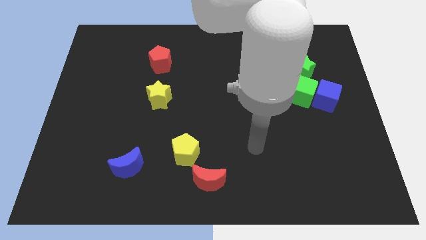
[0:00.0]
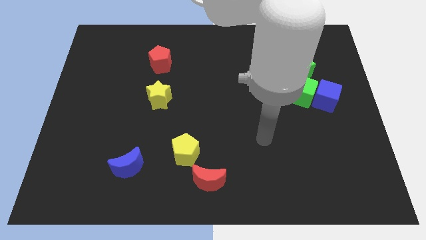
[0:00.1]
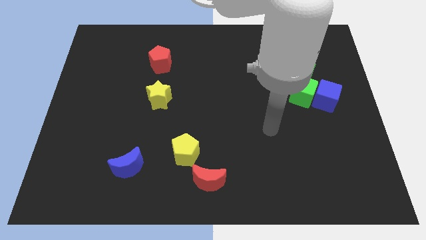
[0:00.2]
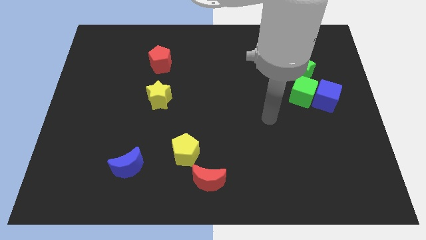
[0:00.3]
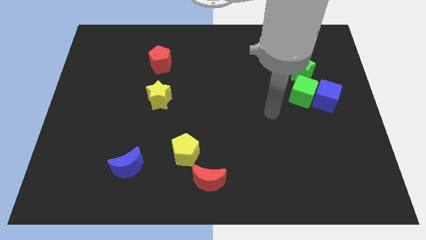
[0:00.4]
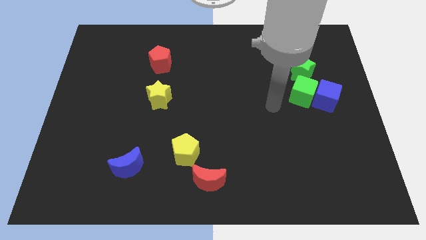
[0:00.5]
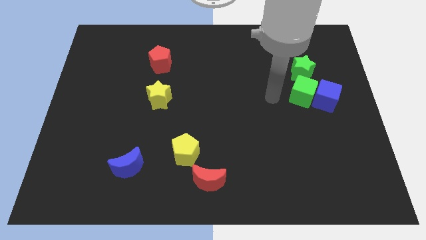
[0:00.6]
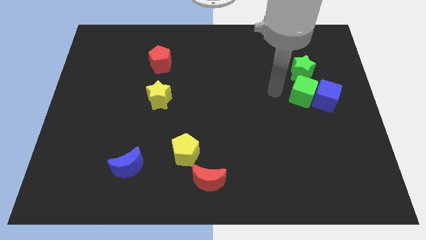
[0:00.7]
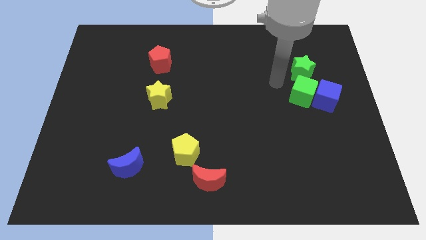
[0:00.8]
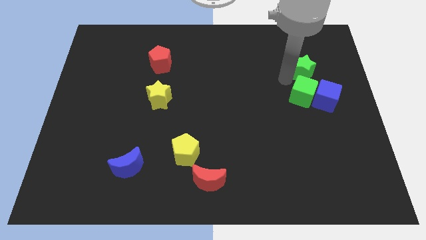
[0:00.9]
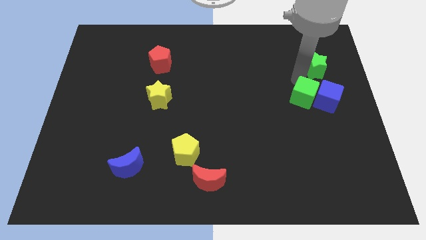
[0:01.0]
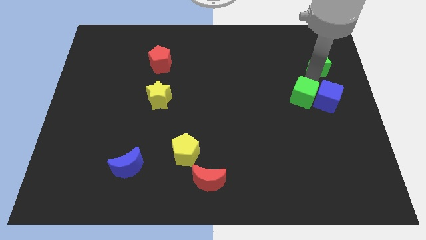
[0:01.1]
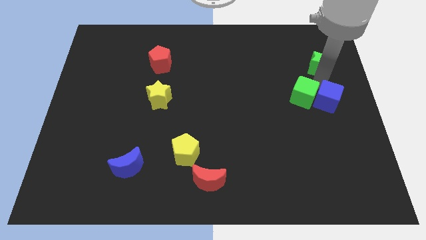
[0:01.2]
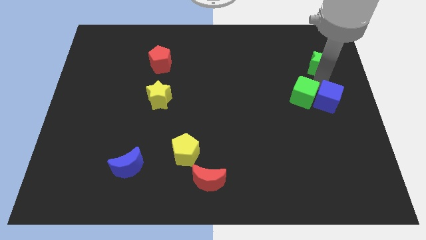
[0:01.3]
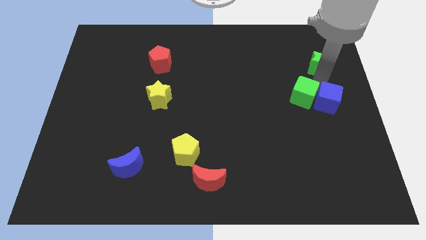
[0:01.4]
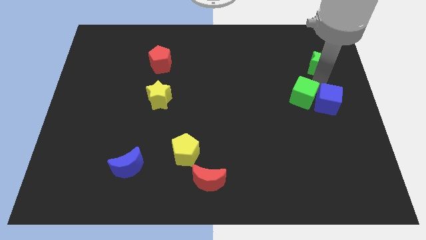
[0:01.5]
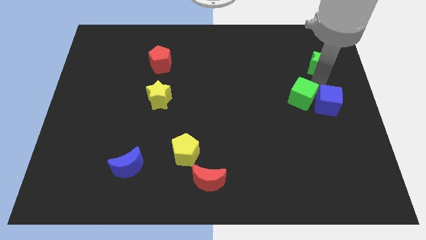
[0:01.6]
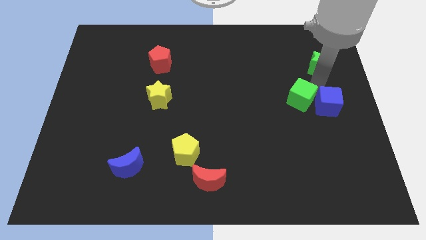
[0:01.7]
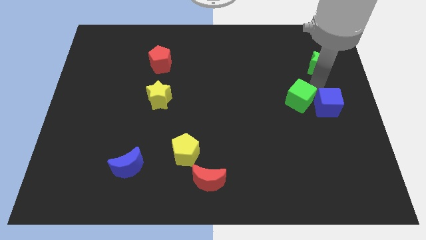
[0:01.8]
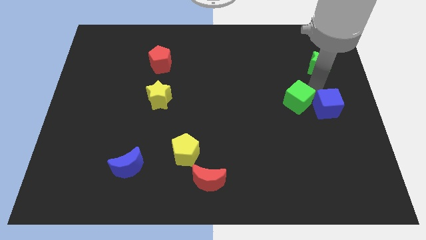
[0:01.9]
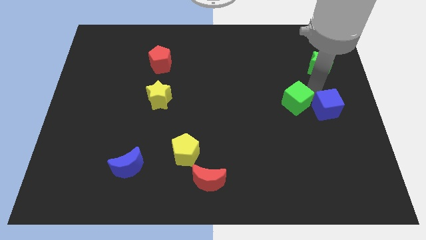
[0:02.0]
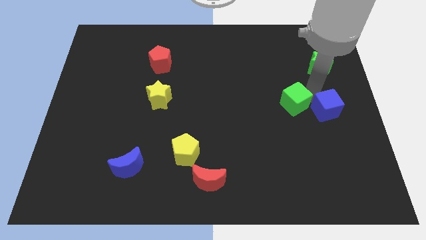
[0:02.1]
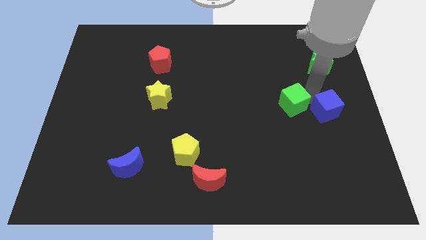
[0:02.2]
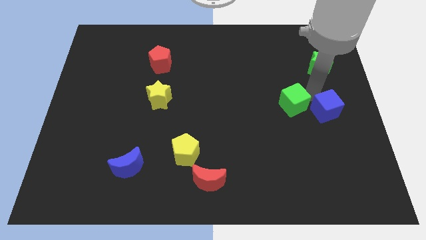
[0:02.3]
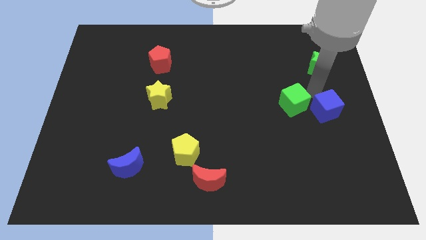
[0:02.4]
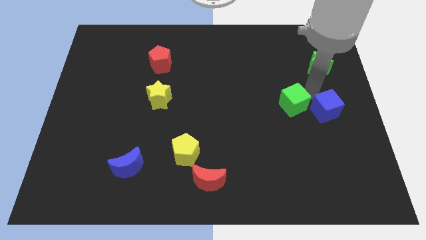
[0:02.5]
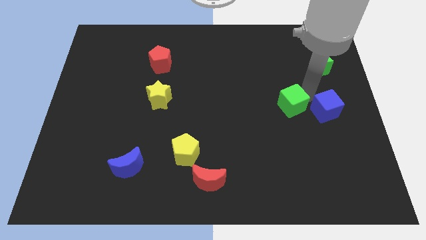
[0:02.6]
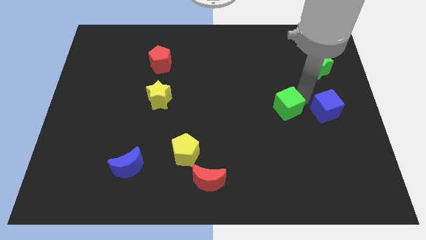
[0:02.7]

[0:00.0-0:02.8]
separate the green cube from the blue cube and green star

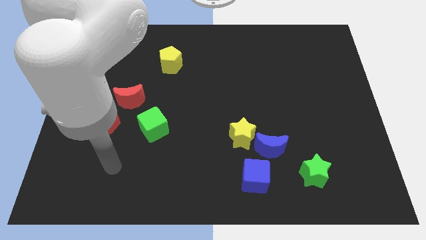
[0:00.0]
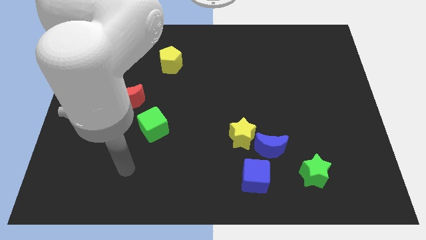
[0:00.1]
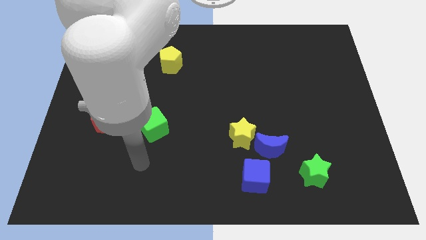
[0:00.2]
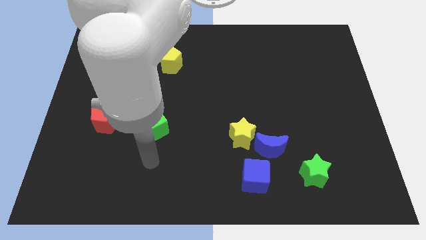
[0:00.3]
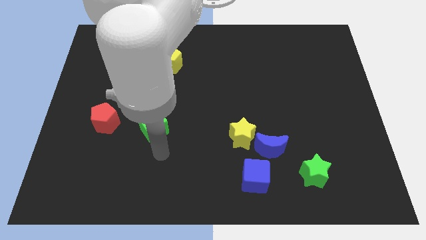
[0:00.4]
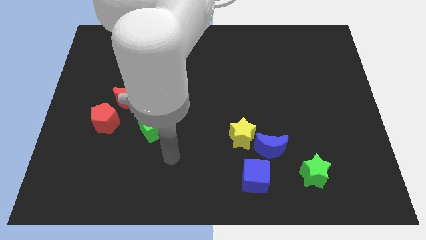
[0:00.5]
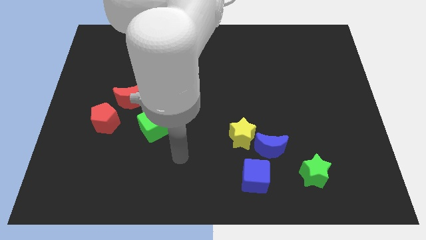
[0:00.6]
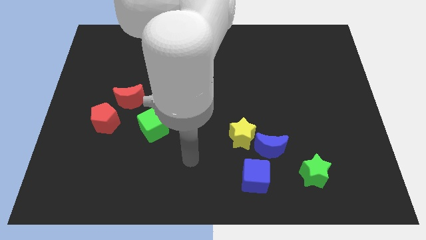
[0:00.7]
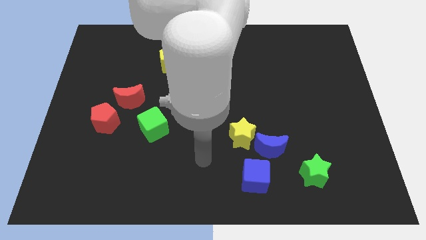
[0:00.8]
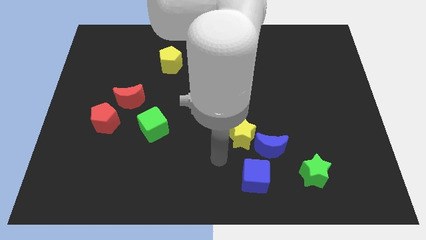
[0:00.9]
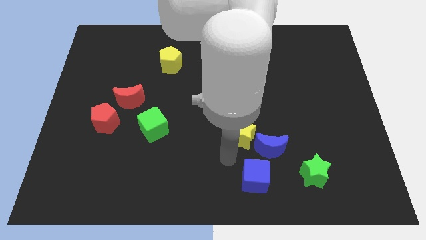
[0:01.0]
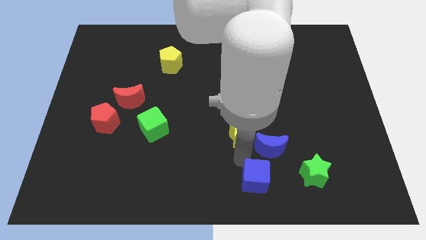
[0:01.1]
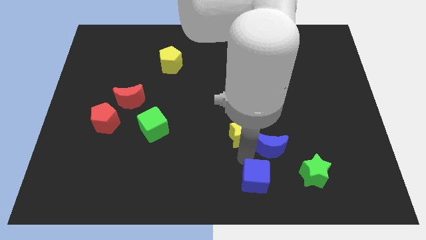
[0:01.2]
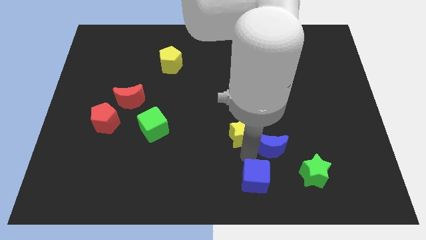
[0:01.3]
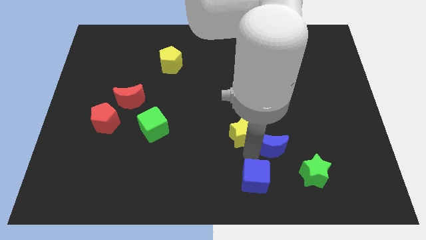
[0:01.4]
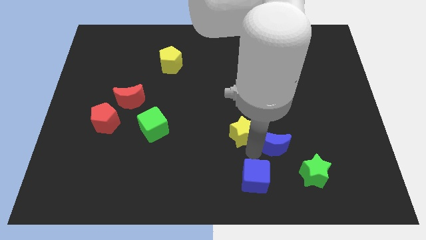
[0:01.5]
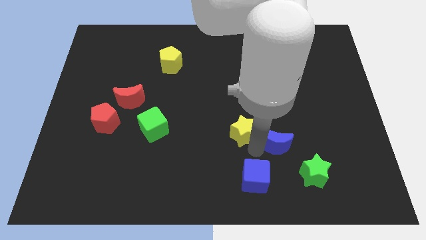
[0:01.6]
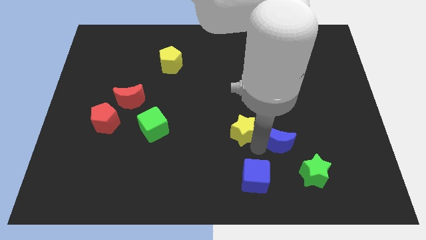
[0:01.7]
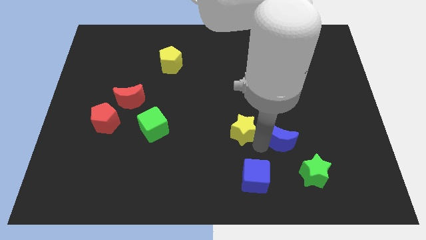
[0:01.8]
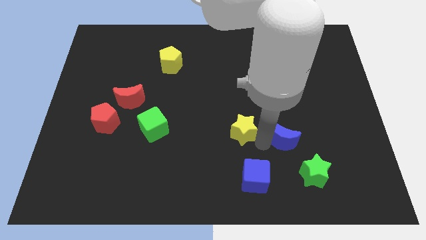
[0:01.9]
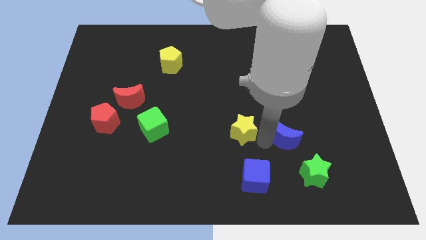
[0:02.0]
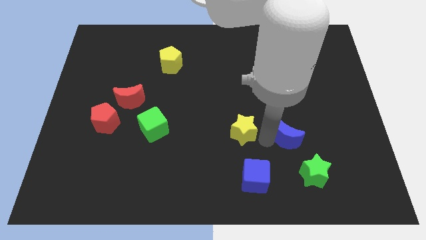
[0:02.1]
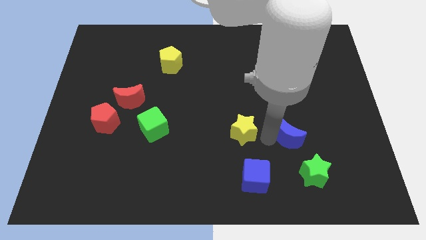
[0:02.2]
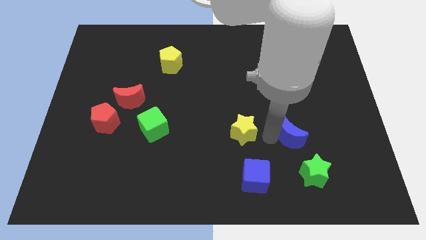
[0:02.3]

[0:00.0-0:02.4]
pull the blue moon apart from the yellow star and blue cube

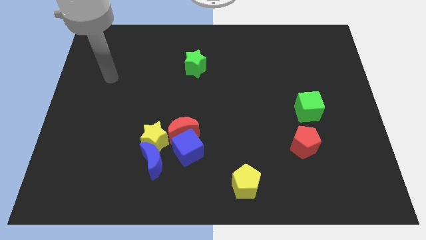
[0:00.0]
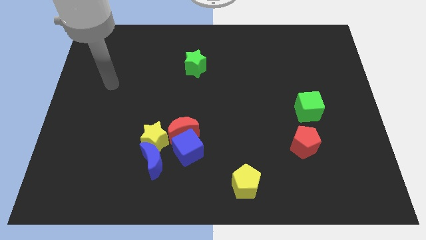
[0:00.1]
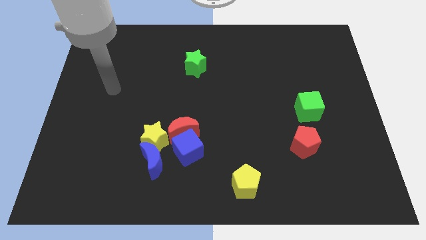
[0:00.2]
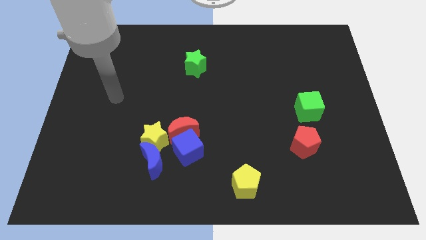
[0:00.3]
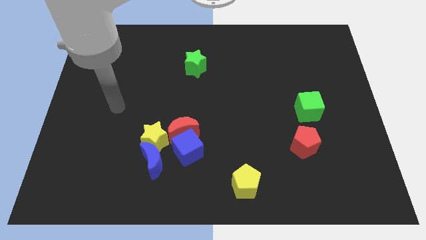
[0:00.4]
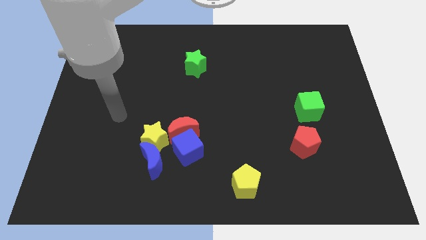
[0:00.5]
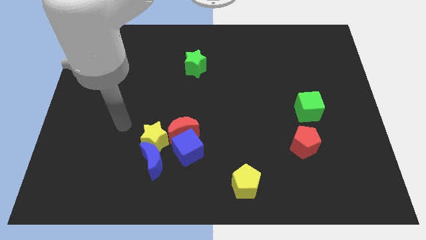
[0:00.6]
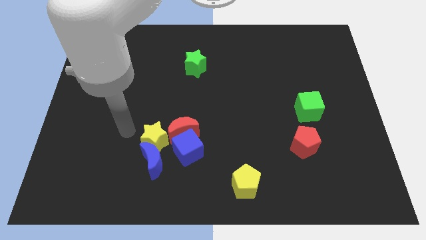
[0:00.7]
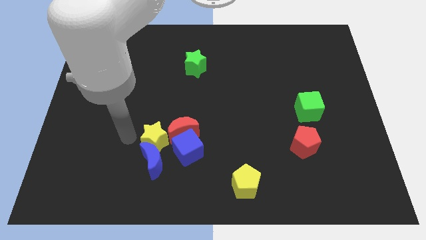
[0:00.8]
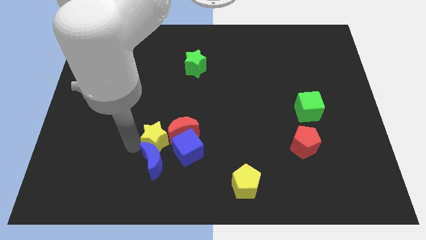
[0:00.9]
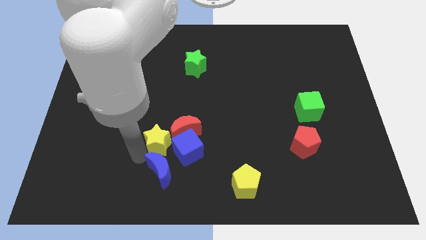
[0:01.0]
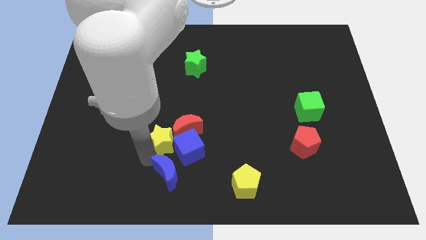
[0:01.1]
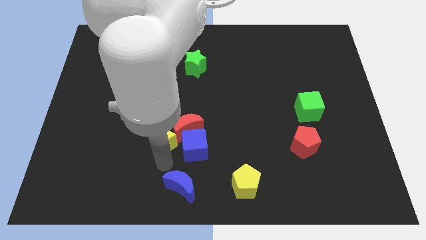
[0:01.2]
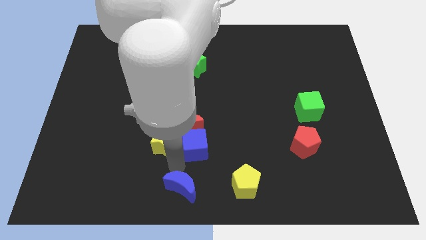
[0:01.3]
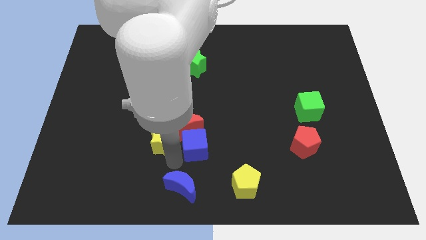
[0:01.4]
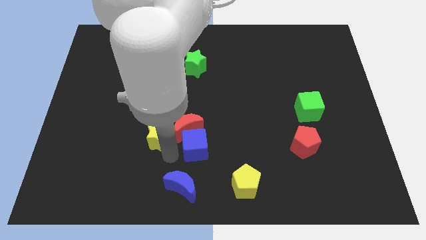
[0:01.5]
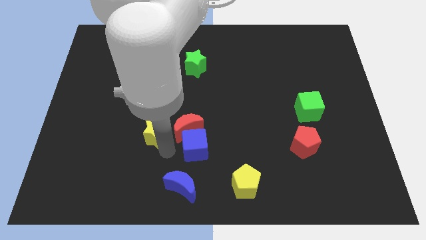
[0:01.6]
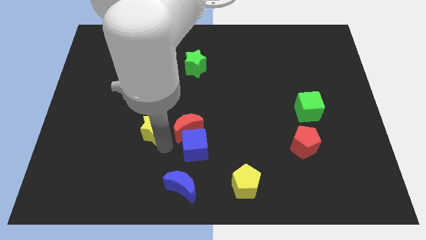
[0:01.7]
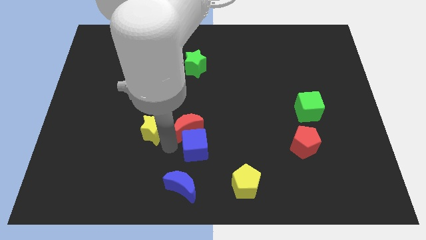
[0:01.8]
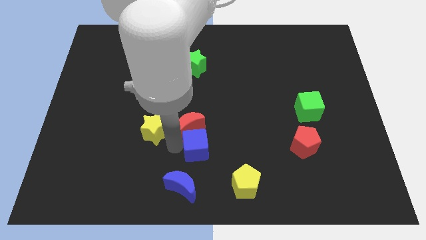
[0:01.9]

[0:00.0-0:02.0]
move the yellow star away from the blue moon, red moon, and blue cube

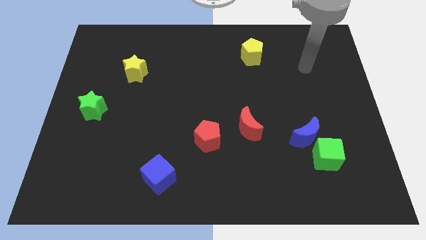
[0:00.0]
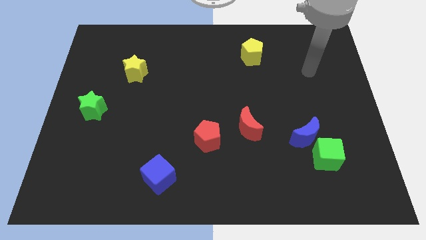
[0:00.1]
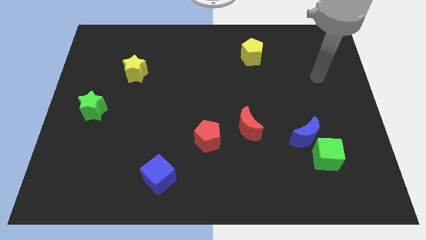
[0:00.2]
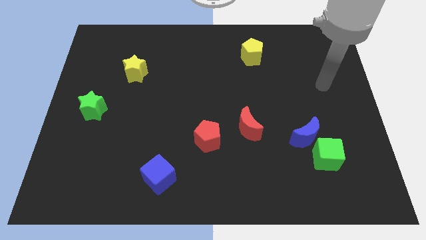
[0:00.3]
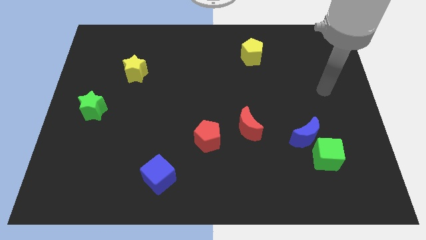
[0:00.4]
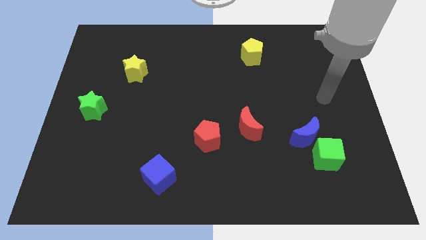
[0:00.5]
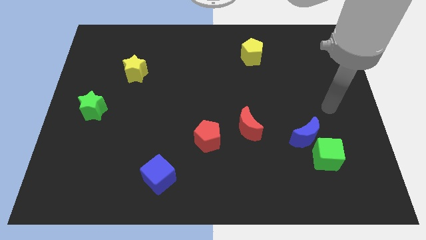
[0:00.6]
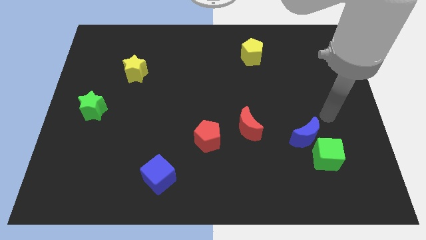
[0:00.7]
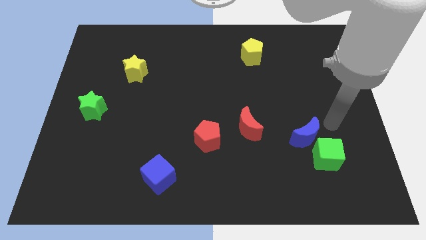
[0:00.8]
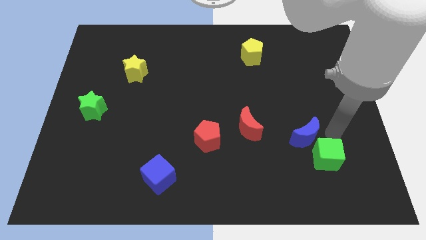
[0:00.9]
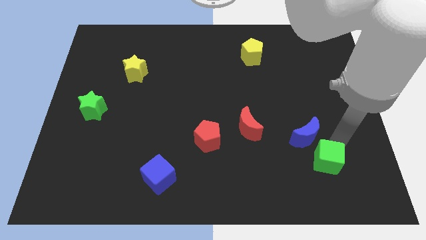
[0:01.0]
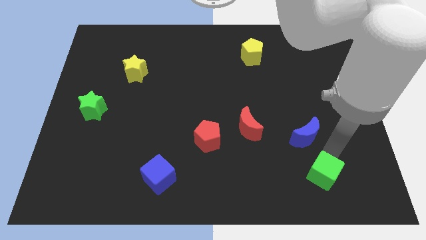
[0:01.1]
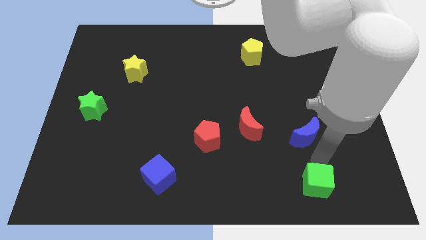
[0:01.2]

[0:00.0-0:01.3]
pull the blue moon apart from the green cube

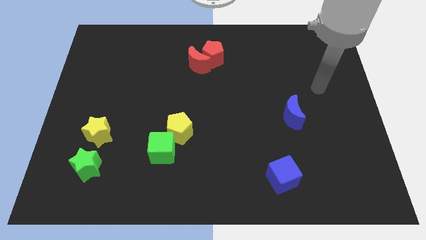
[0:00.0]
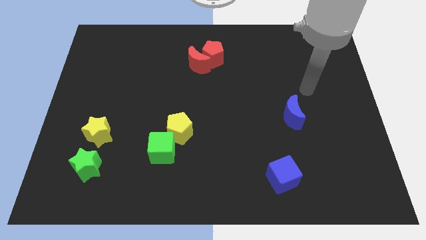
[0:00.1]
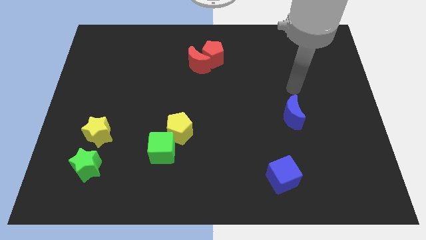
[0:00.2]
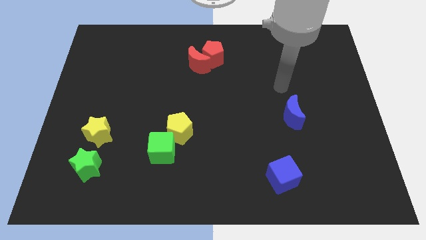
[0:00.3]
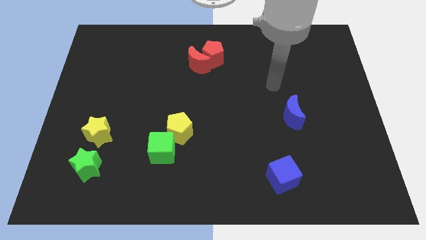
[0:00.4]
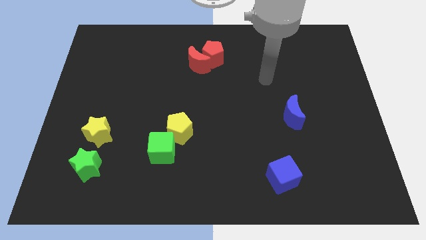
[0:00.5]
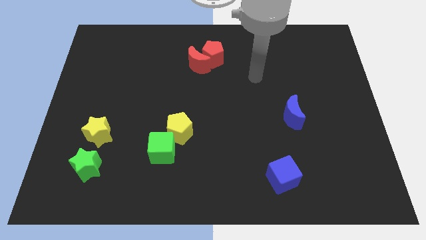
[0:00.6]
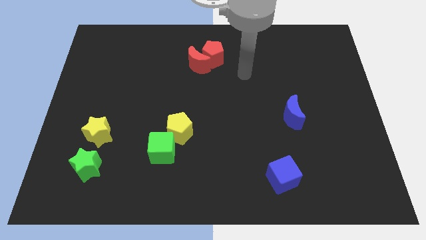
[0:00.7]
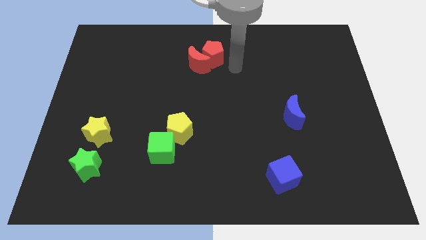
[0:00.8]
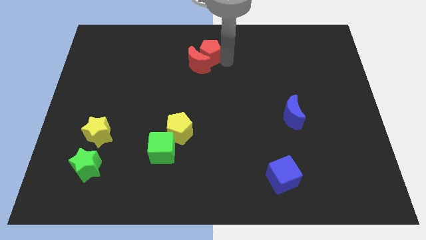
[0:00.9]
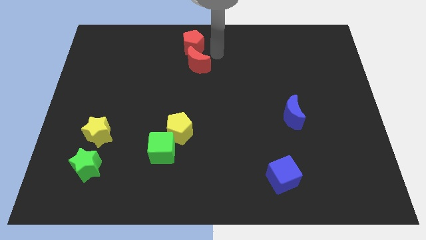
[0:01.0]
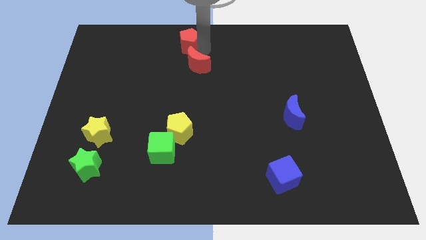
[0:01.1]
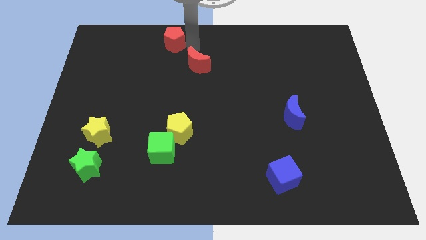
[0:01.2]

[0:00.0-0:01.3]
pull the red moon apart from the red pentagon
